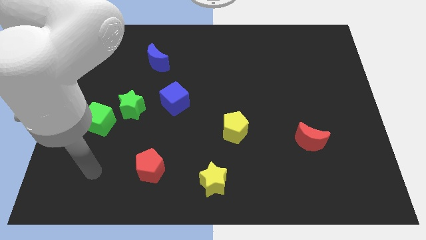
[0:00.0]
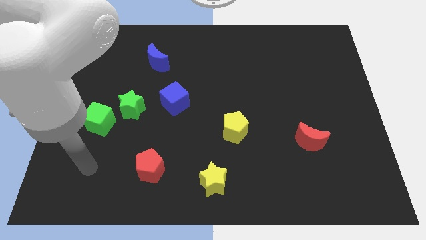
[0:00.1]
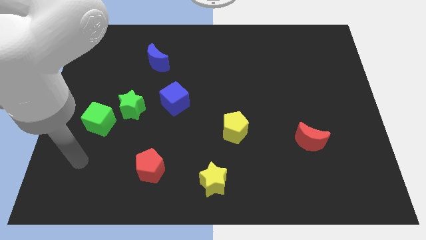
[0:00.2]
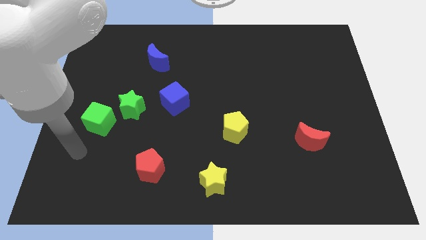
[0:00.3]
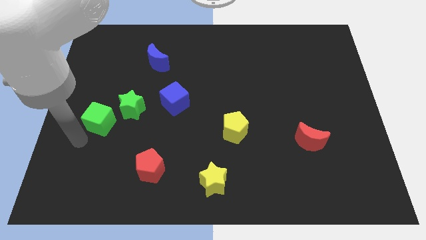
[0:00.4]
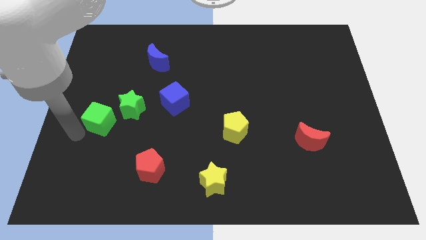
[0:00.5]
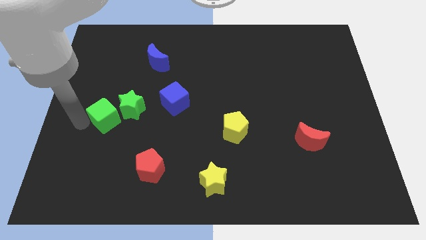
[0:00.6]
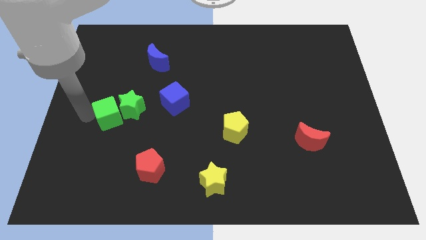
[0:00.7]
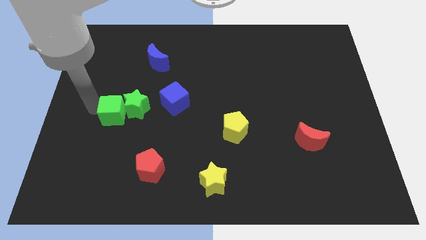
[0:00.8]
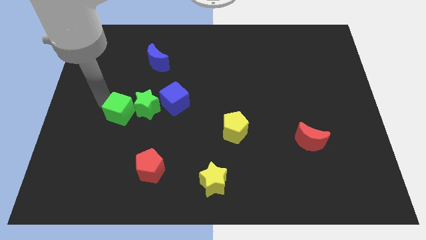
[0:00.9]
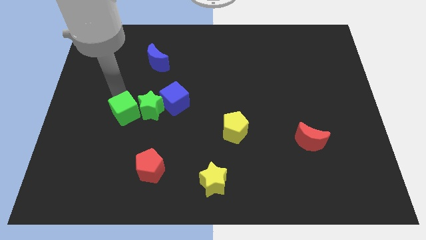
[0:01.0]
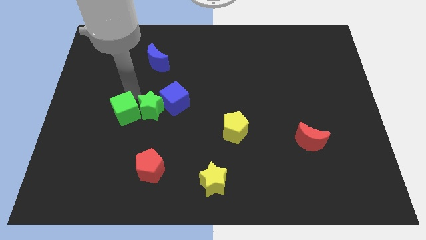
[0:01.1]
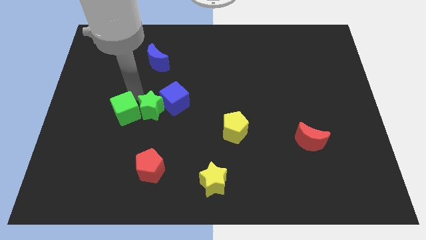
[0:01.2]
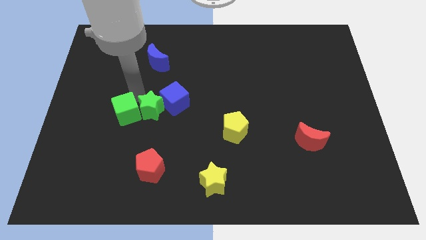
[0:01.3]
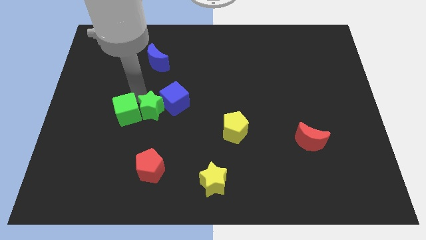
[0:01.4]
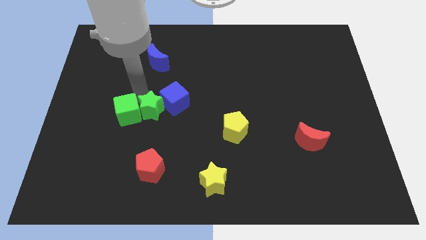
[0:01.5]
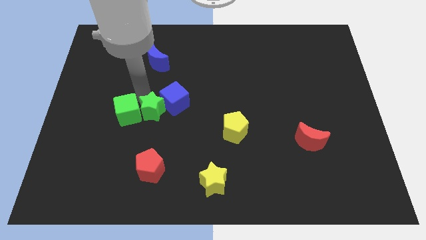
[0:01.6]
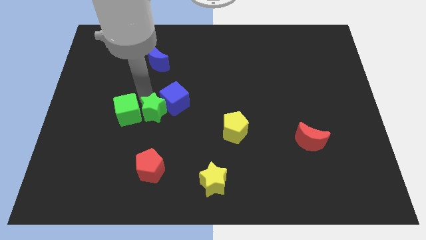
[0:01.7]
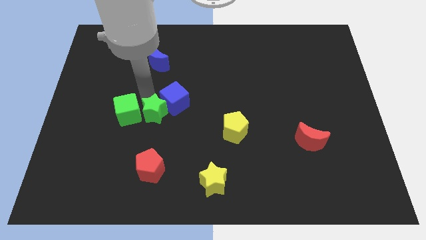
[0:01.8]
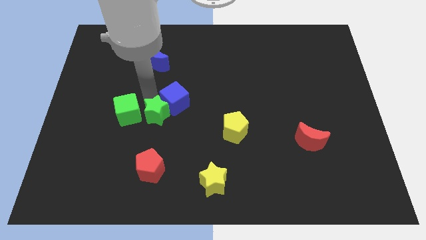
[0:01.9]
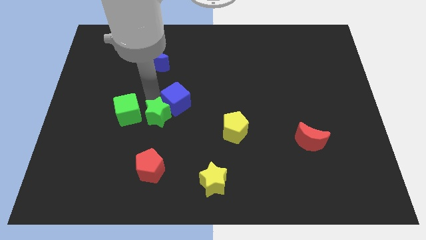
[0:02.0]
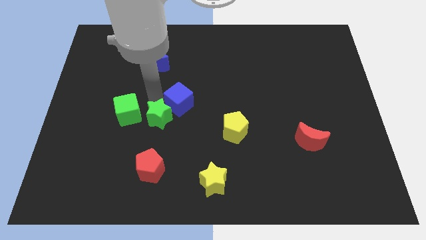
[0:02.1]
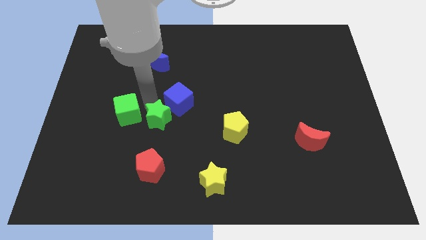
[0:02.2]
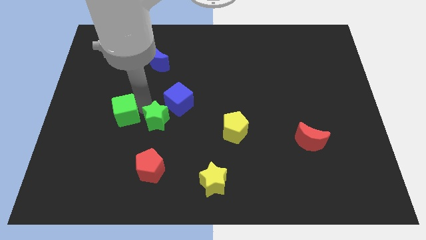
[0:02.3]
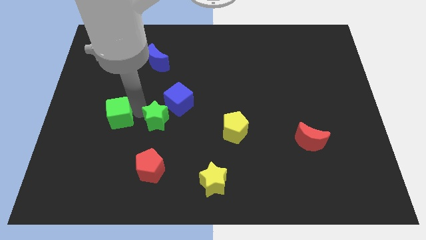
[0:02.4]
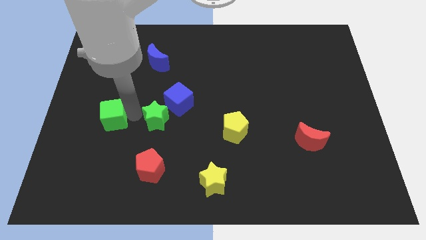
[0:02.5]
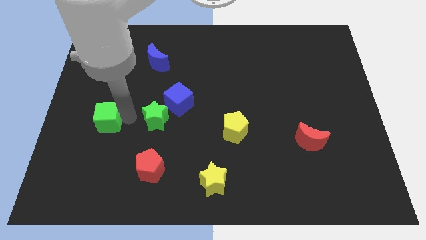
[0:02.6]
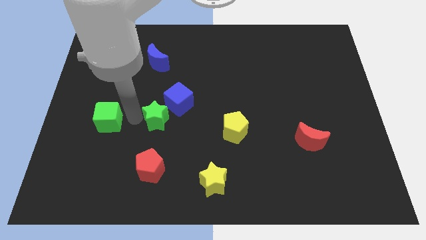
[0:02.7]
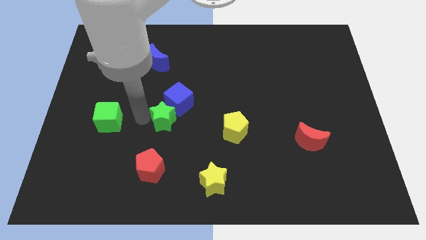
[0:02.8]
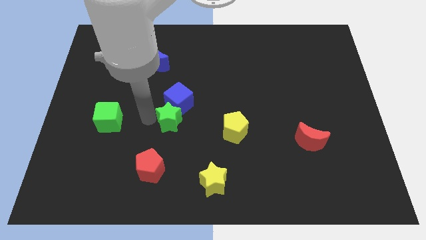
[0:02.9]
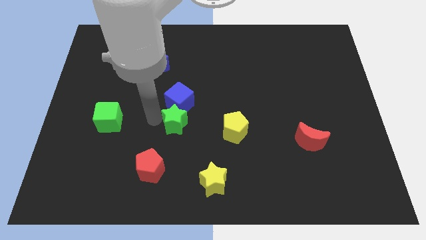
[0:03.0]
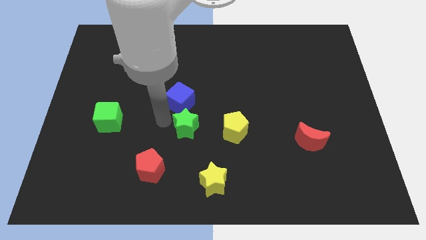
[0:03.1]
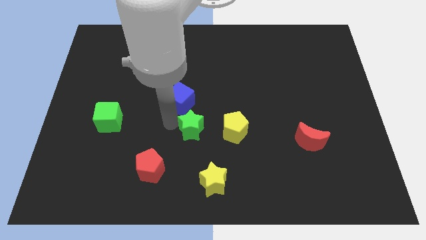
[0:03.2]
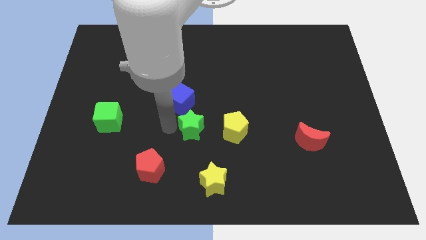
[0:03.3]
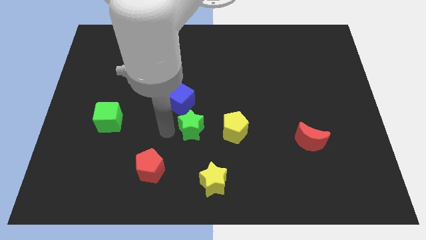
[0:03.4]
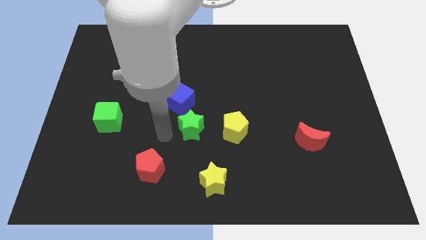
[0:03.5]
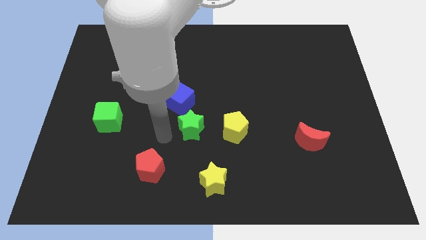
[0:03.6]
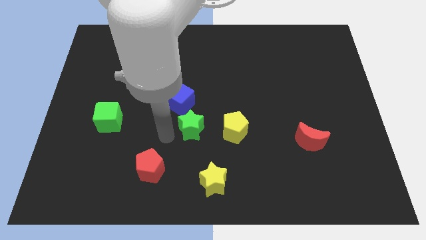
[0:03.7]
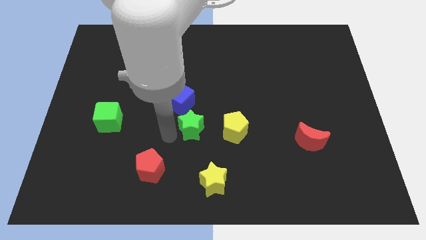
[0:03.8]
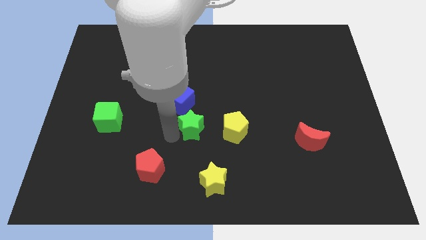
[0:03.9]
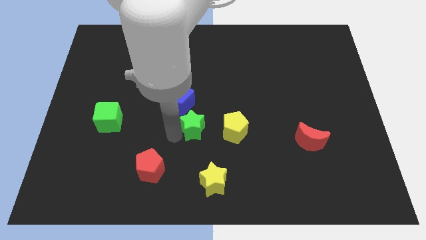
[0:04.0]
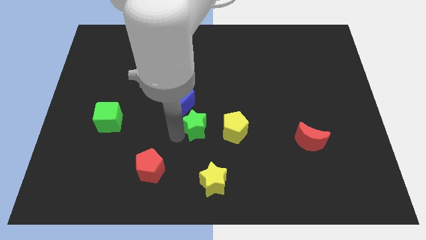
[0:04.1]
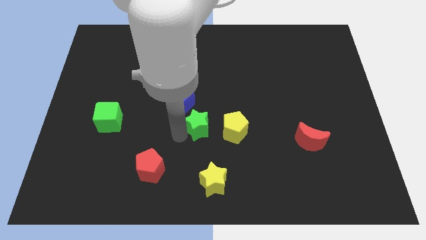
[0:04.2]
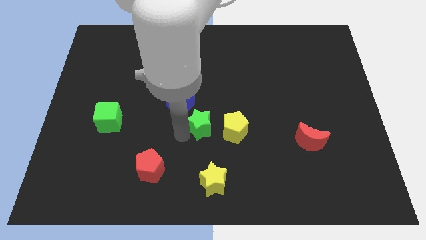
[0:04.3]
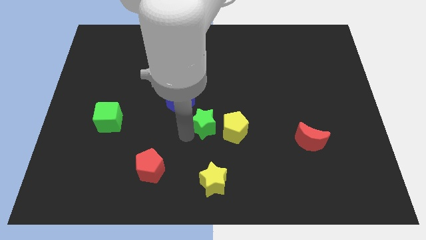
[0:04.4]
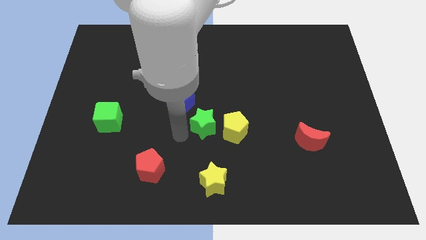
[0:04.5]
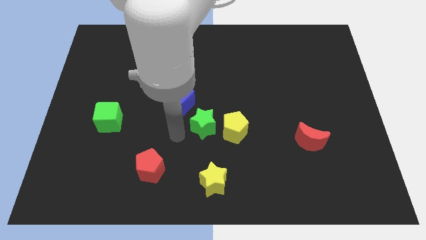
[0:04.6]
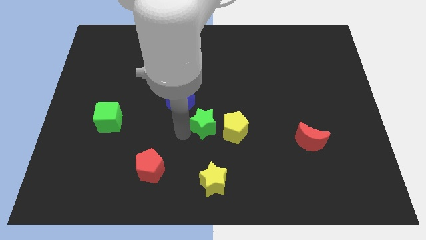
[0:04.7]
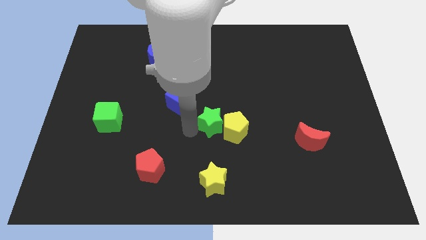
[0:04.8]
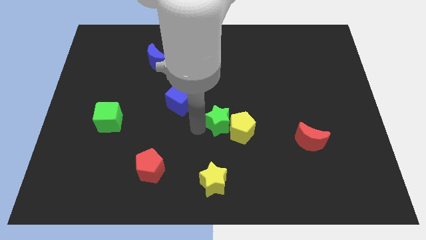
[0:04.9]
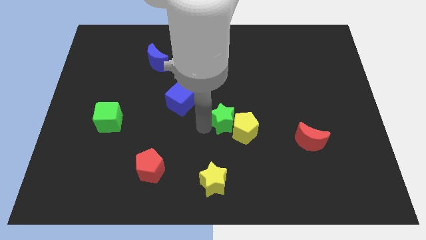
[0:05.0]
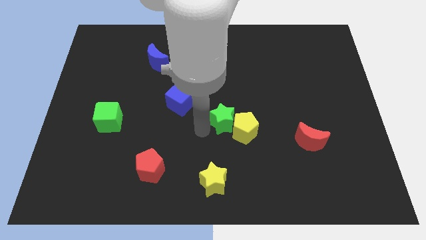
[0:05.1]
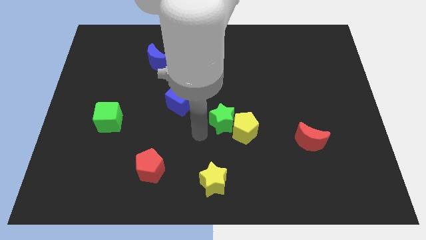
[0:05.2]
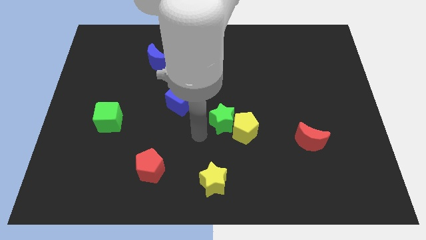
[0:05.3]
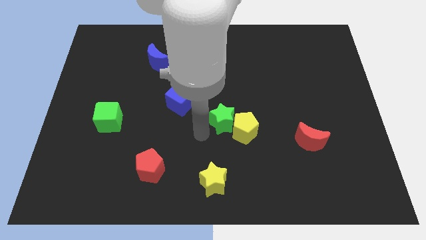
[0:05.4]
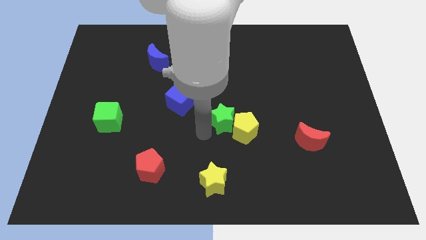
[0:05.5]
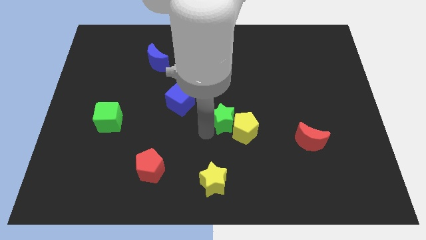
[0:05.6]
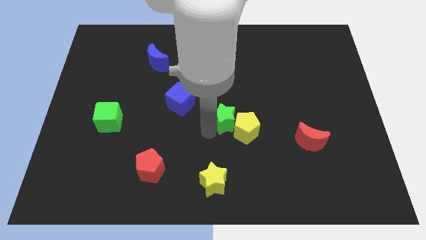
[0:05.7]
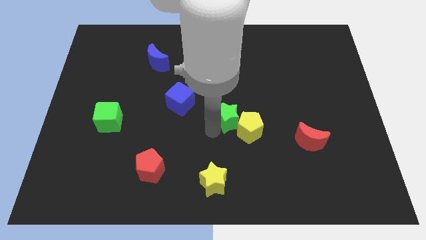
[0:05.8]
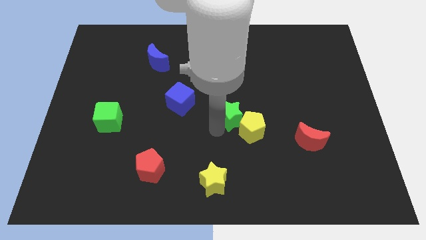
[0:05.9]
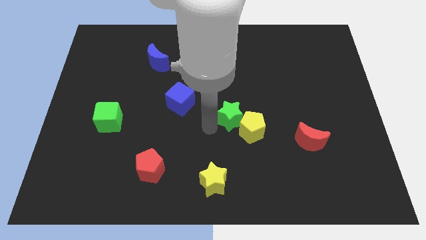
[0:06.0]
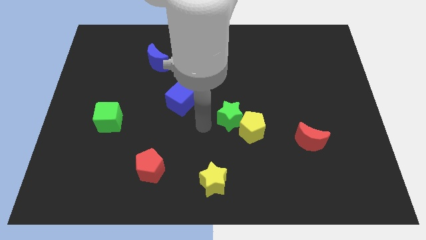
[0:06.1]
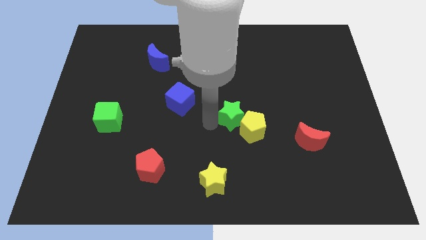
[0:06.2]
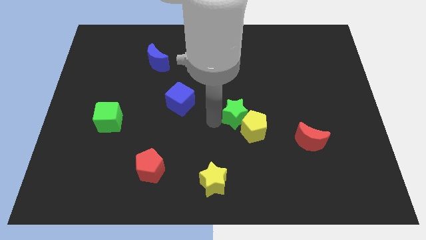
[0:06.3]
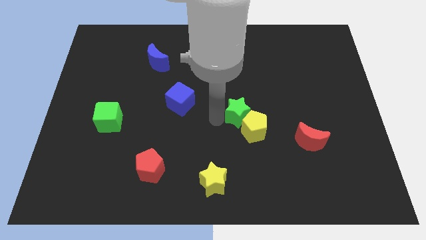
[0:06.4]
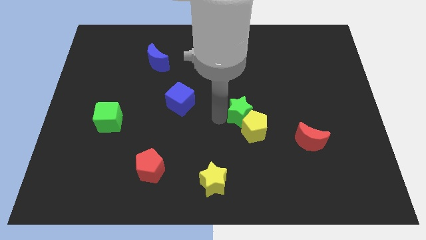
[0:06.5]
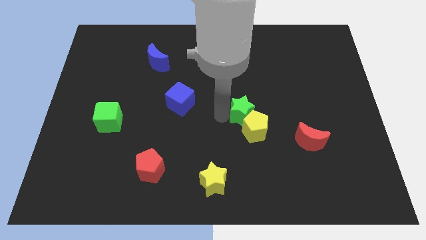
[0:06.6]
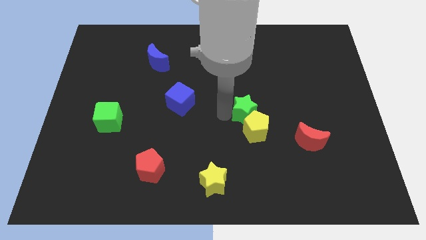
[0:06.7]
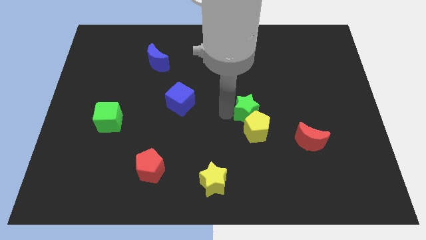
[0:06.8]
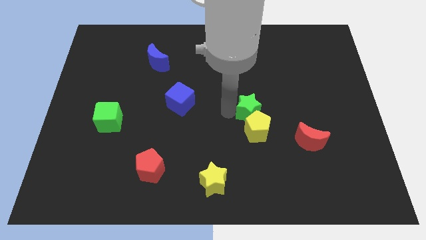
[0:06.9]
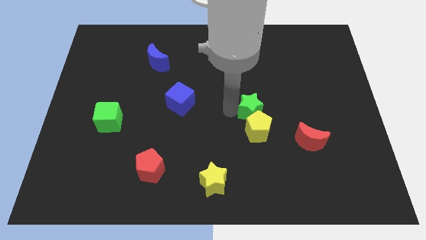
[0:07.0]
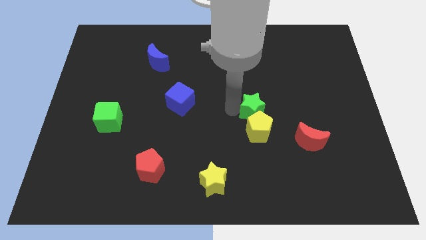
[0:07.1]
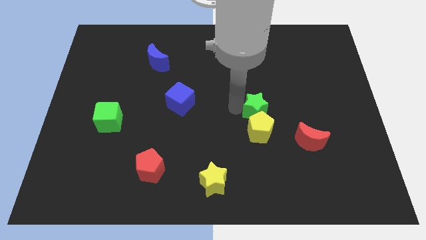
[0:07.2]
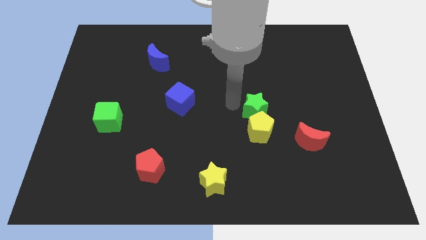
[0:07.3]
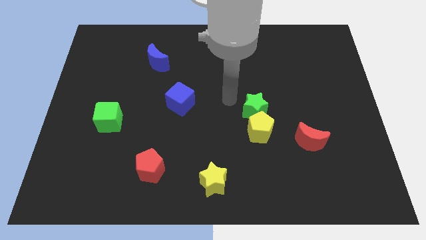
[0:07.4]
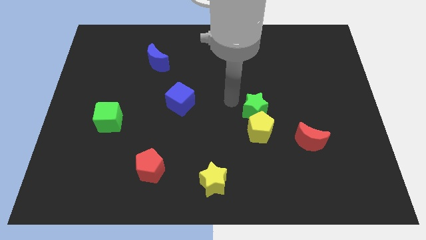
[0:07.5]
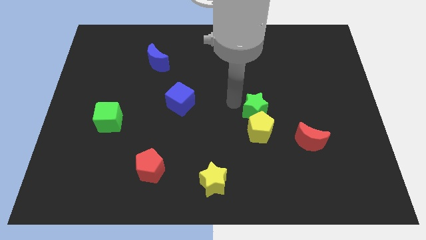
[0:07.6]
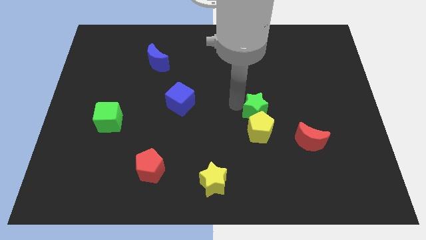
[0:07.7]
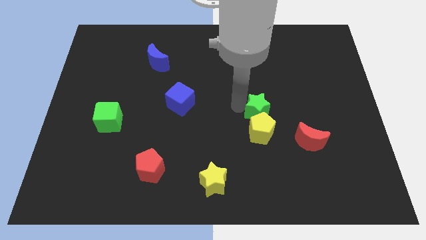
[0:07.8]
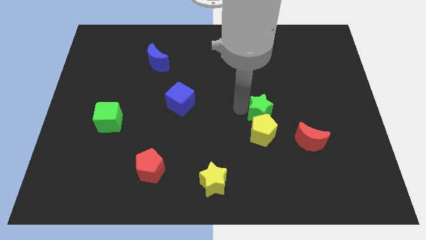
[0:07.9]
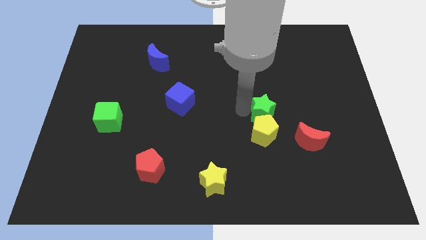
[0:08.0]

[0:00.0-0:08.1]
slide the green star diagonally up and to the left of the red moon
